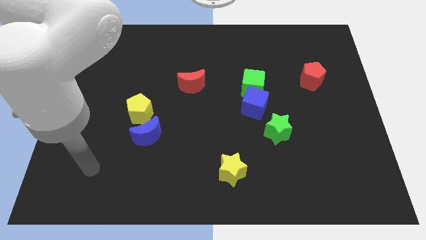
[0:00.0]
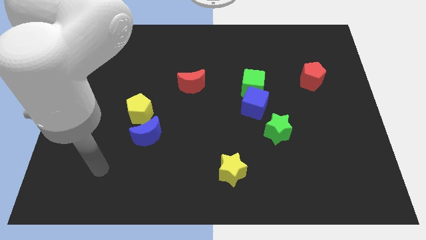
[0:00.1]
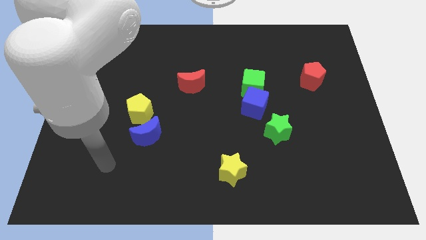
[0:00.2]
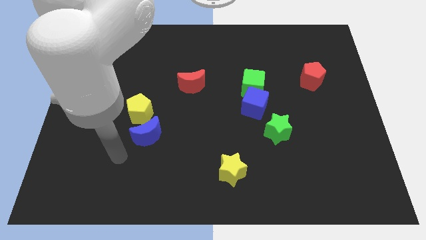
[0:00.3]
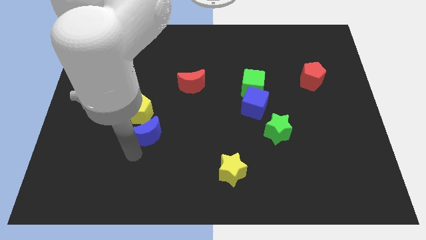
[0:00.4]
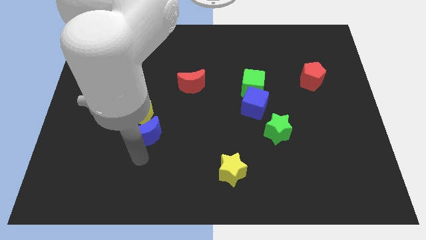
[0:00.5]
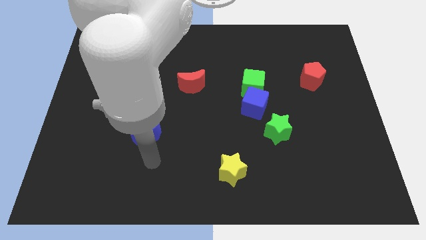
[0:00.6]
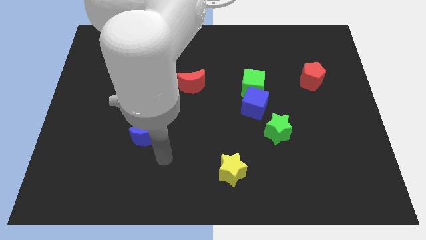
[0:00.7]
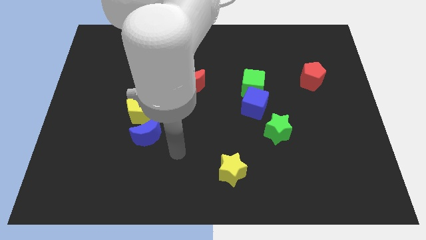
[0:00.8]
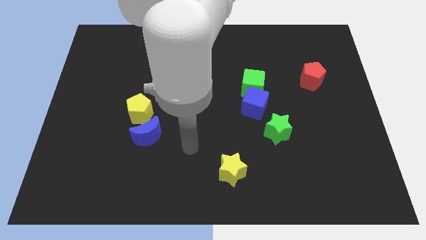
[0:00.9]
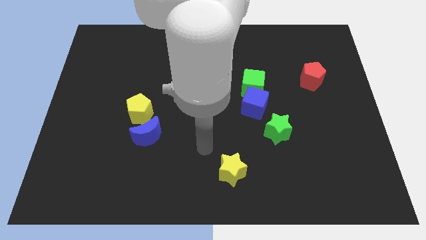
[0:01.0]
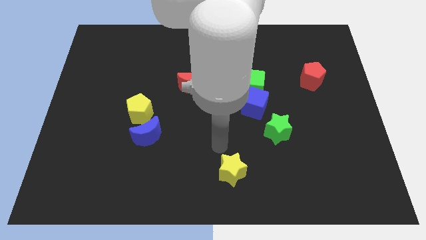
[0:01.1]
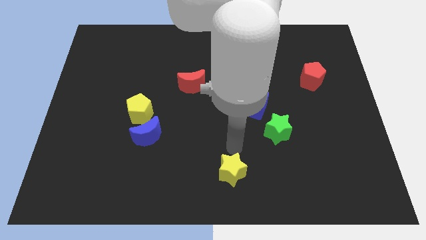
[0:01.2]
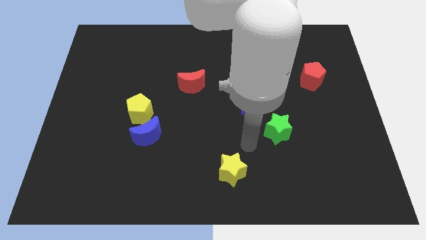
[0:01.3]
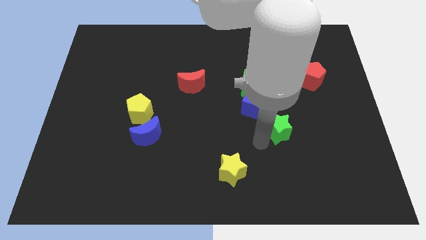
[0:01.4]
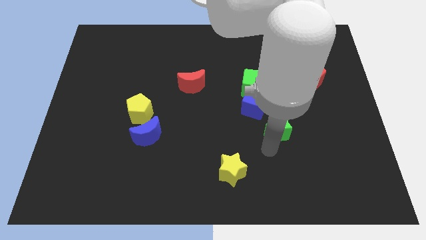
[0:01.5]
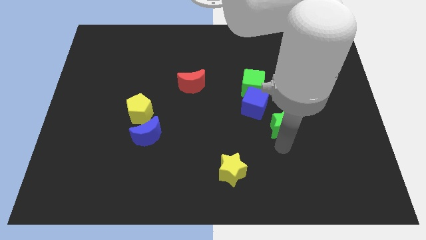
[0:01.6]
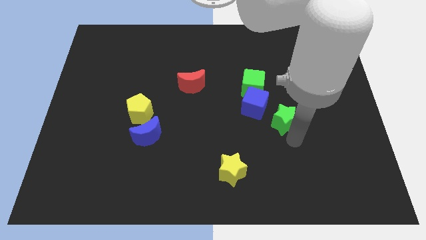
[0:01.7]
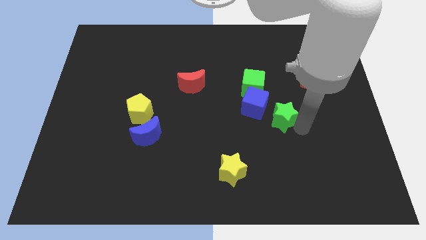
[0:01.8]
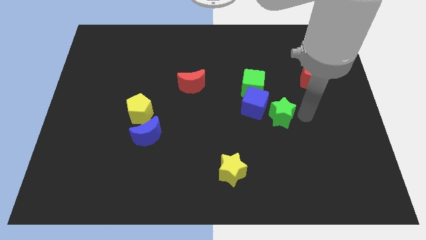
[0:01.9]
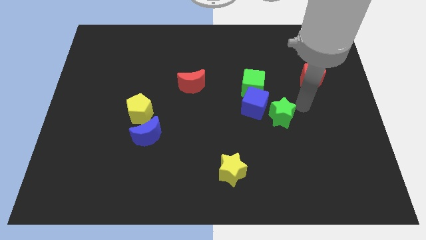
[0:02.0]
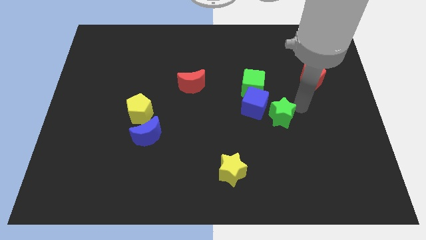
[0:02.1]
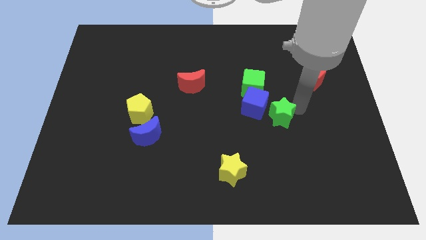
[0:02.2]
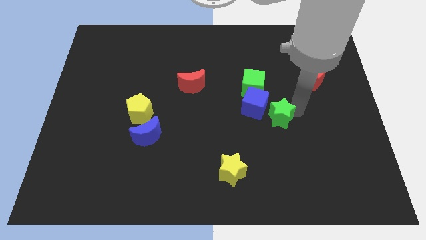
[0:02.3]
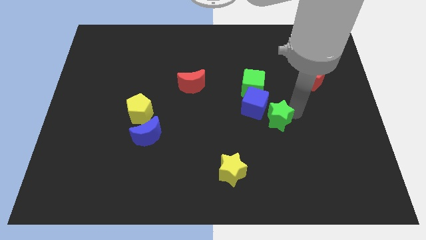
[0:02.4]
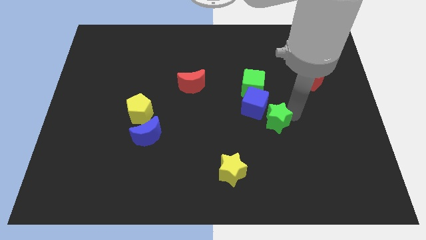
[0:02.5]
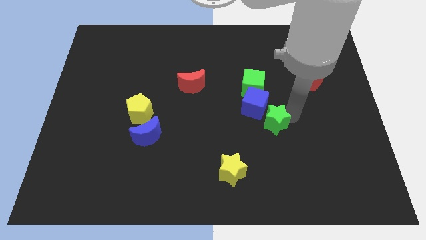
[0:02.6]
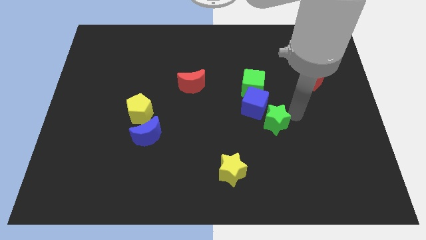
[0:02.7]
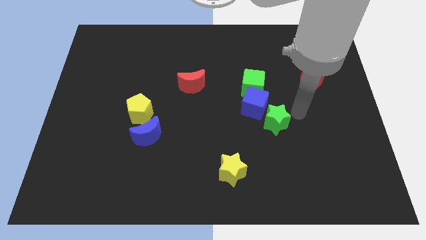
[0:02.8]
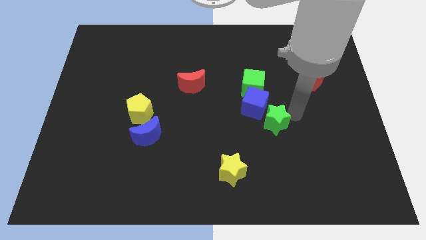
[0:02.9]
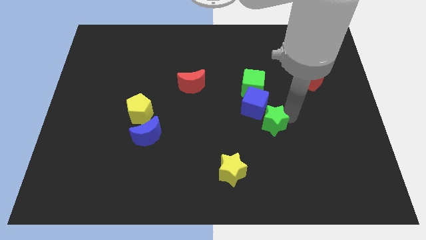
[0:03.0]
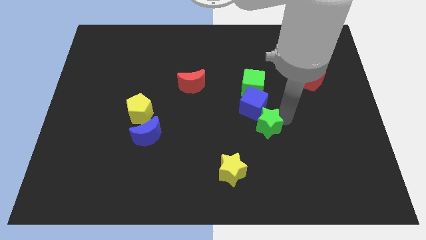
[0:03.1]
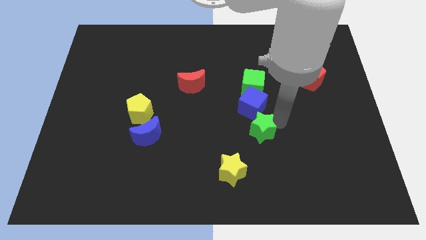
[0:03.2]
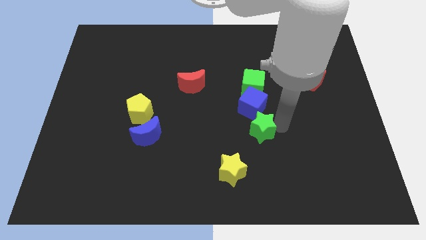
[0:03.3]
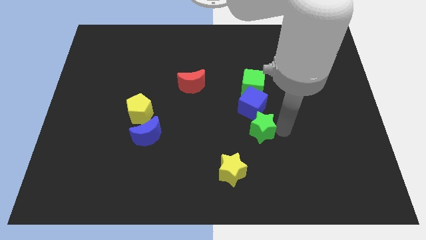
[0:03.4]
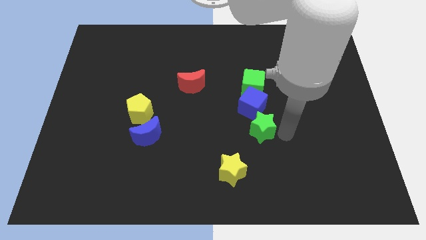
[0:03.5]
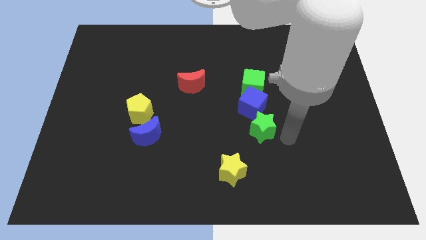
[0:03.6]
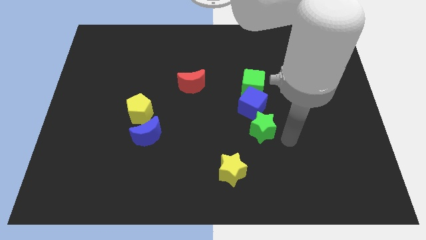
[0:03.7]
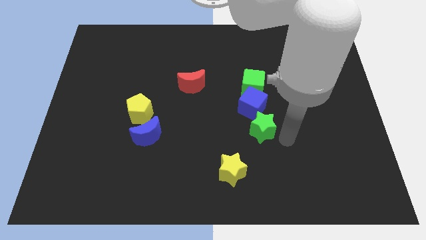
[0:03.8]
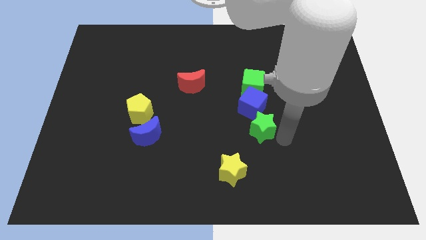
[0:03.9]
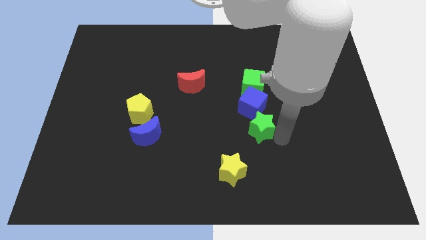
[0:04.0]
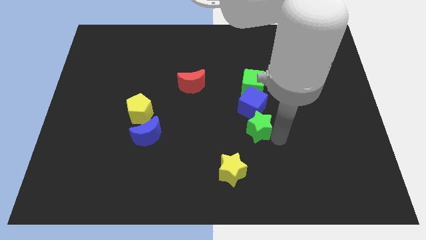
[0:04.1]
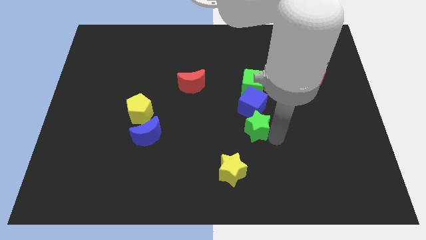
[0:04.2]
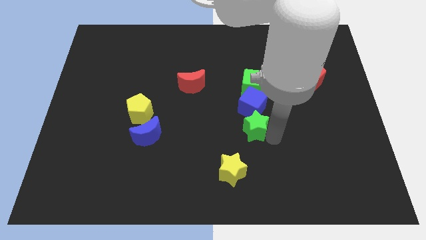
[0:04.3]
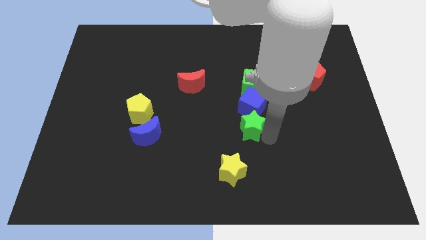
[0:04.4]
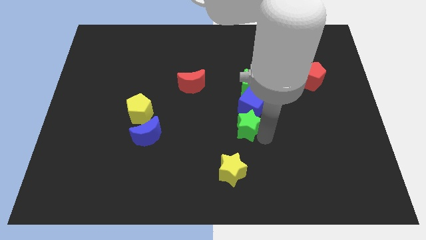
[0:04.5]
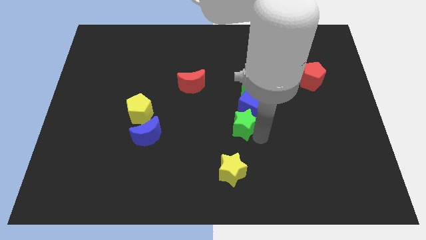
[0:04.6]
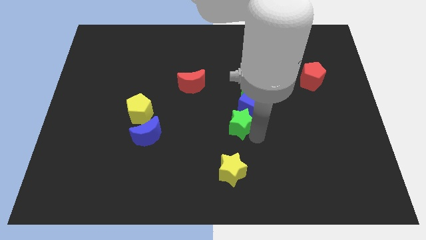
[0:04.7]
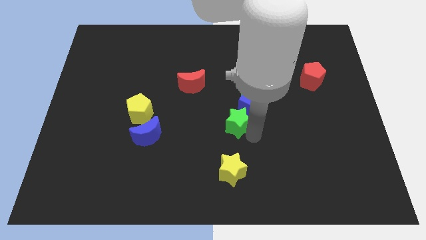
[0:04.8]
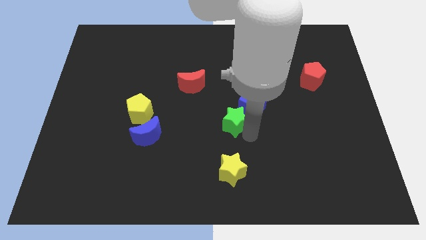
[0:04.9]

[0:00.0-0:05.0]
slide the green star a little upwards and left diagonally

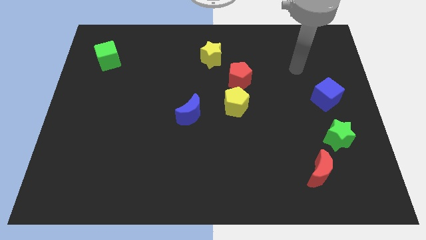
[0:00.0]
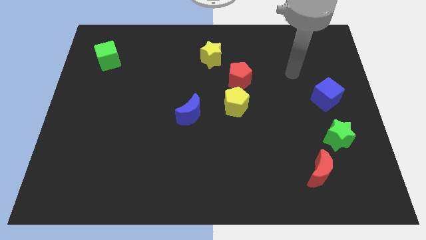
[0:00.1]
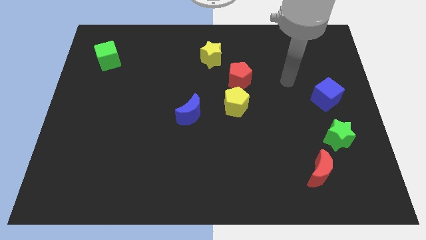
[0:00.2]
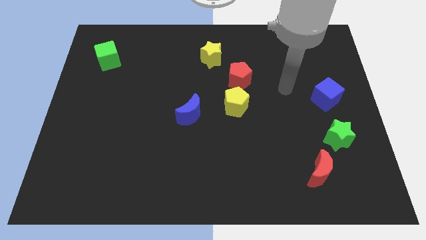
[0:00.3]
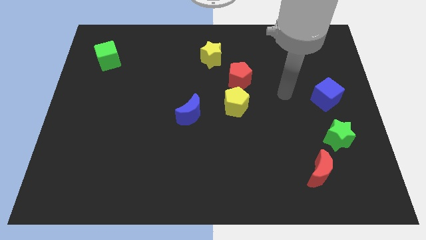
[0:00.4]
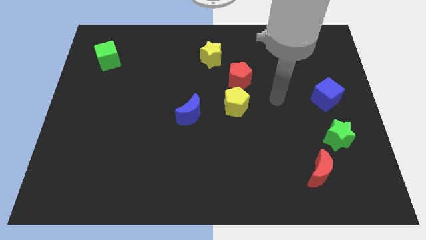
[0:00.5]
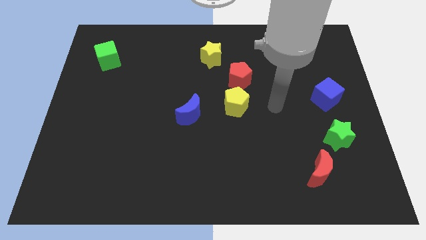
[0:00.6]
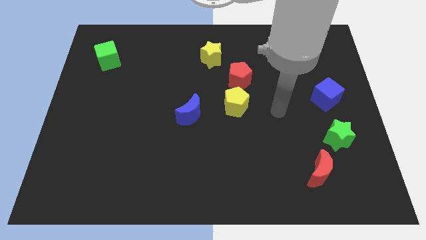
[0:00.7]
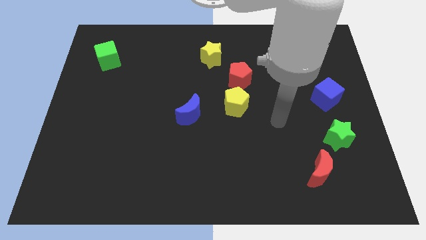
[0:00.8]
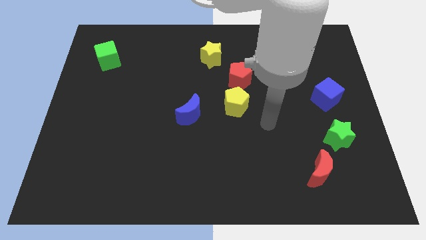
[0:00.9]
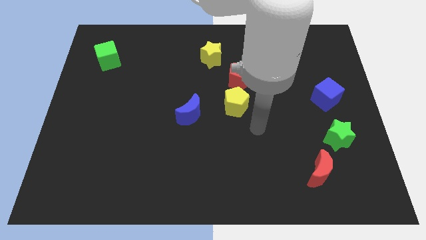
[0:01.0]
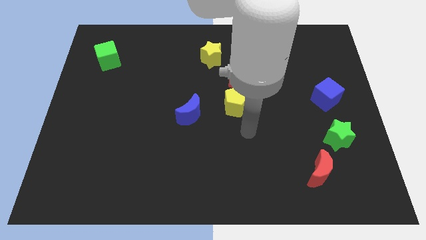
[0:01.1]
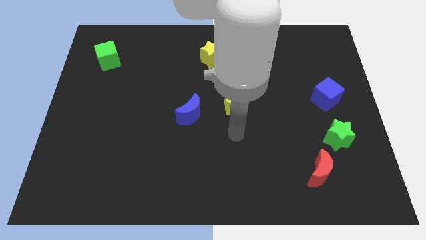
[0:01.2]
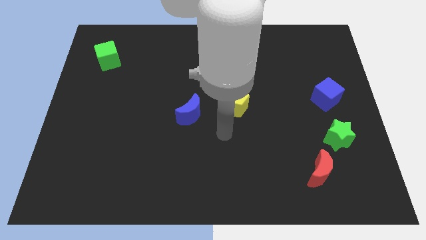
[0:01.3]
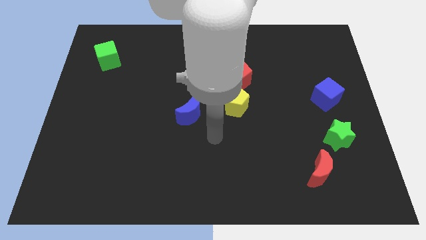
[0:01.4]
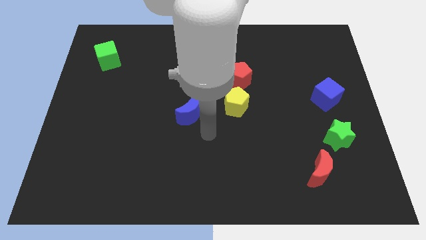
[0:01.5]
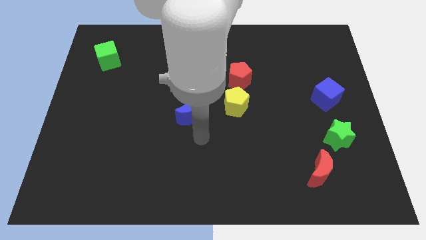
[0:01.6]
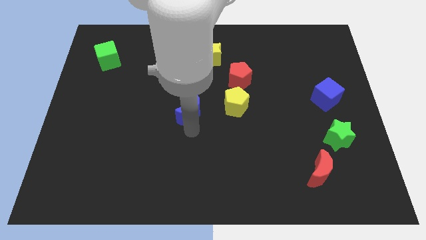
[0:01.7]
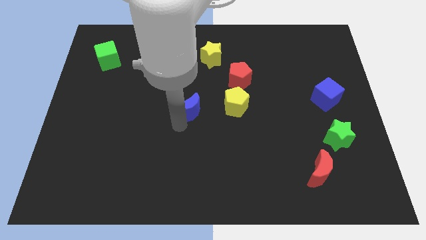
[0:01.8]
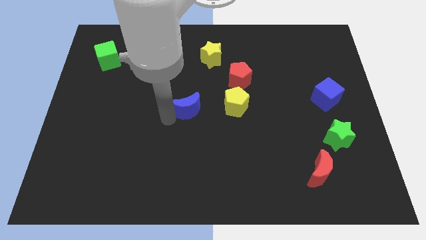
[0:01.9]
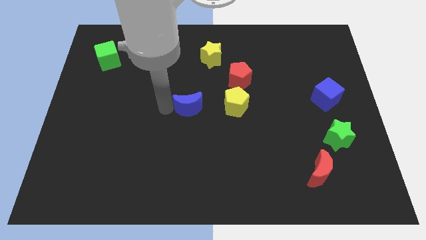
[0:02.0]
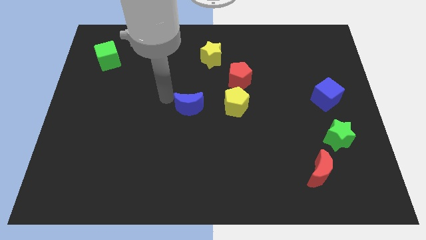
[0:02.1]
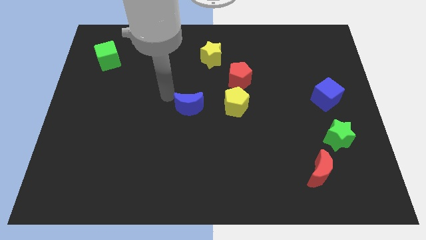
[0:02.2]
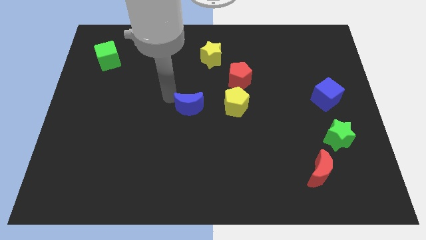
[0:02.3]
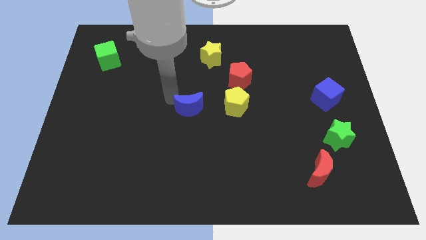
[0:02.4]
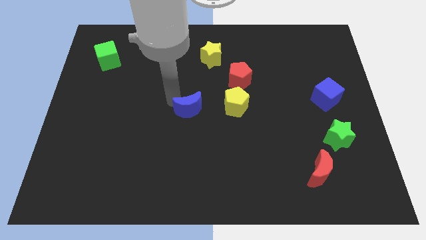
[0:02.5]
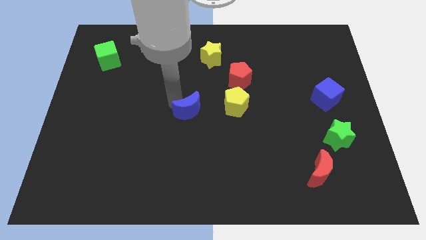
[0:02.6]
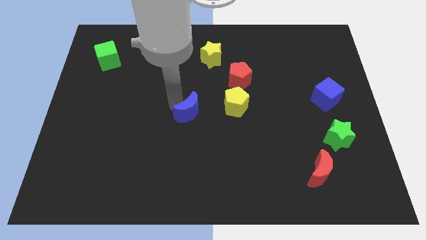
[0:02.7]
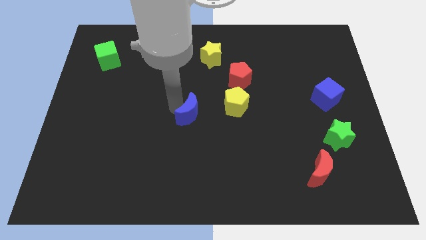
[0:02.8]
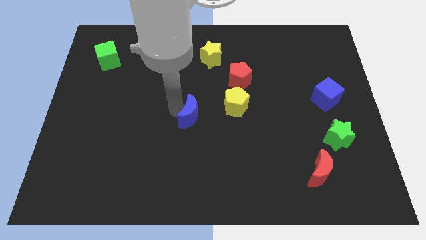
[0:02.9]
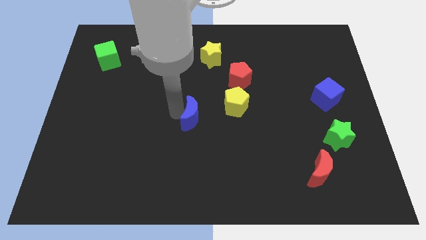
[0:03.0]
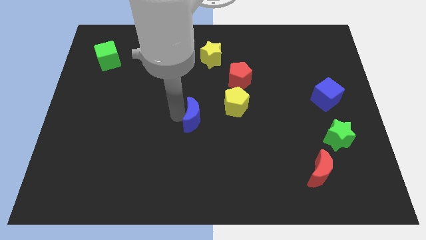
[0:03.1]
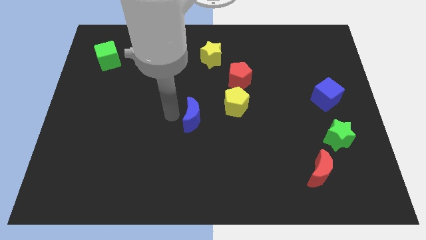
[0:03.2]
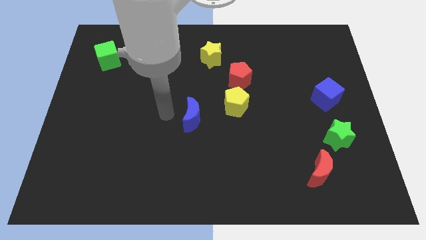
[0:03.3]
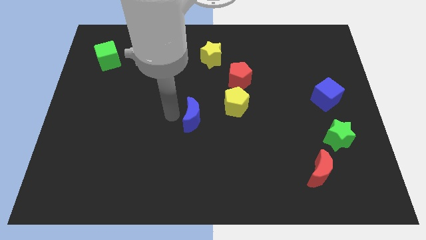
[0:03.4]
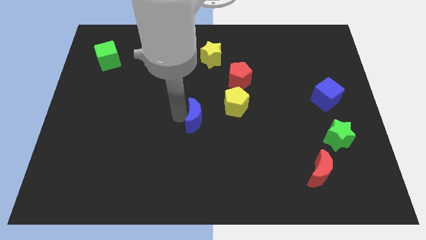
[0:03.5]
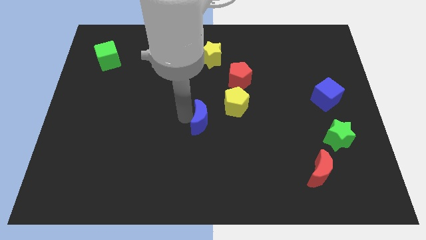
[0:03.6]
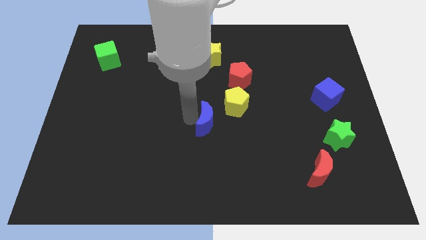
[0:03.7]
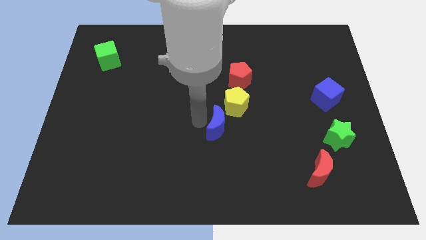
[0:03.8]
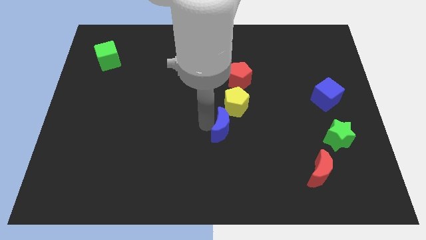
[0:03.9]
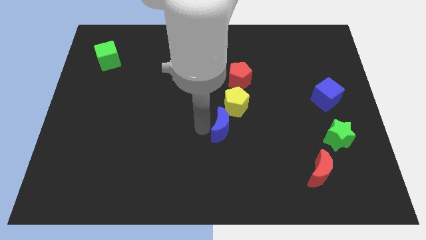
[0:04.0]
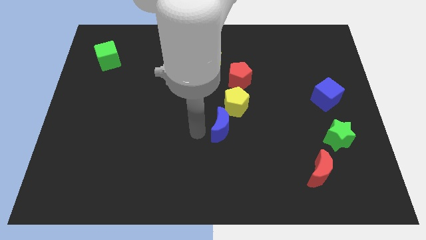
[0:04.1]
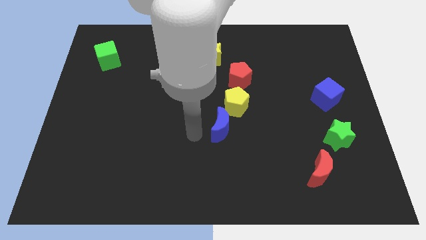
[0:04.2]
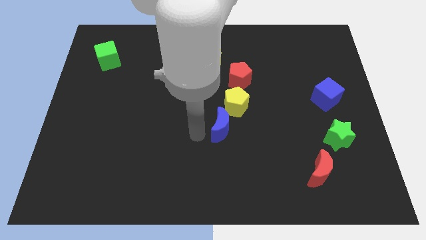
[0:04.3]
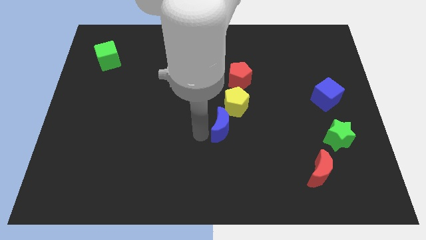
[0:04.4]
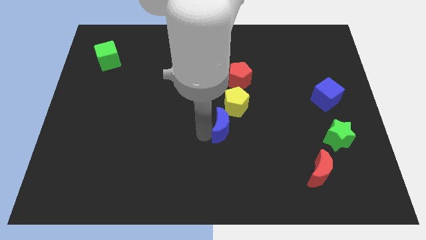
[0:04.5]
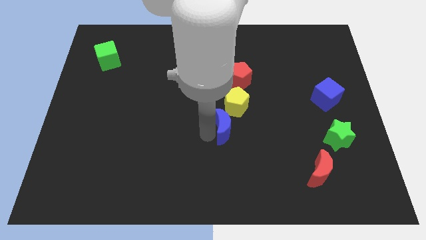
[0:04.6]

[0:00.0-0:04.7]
push the blue moon a little bit right
